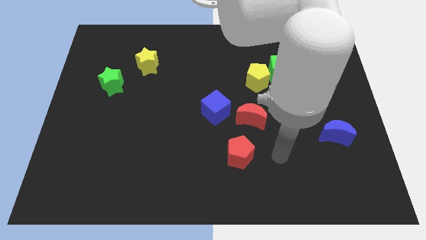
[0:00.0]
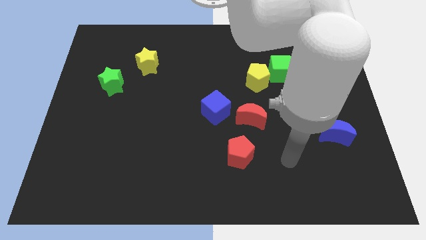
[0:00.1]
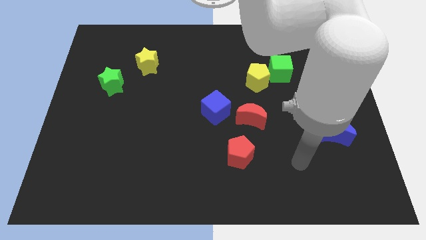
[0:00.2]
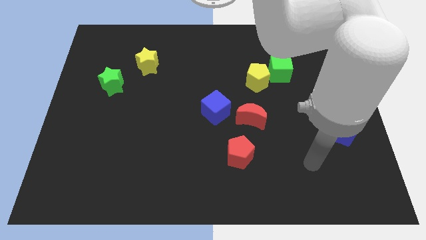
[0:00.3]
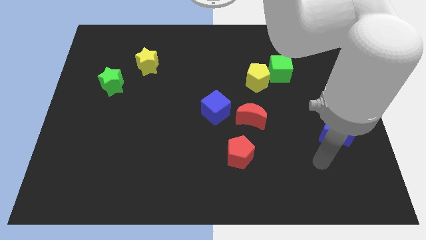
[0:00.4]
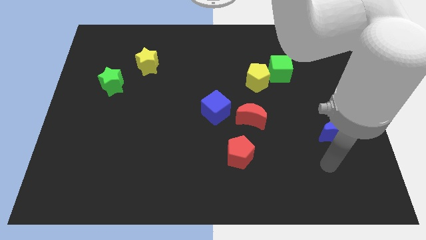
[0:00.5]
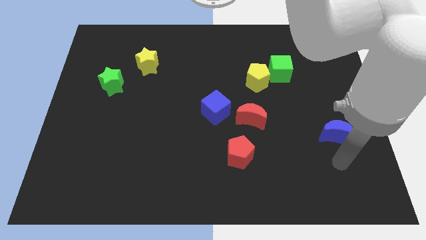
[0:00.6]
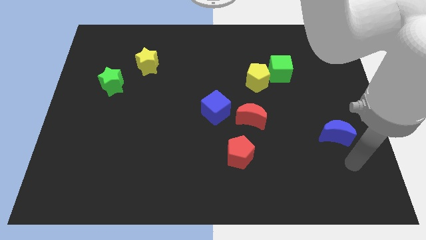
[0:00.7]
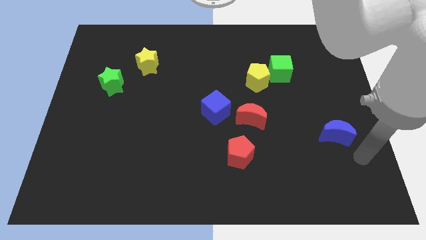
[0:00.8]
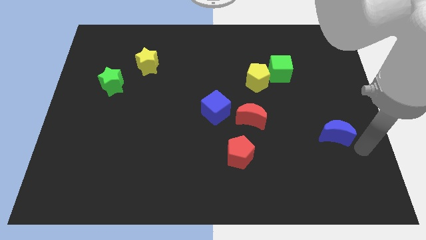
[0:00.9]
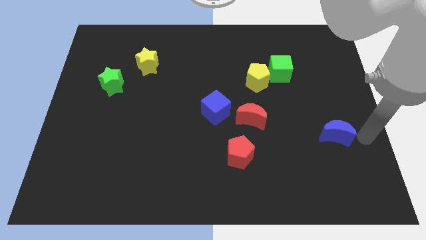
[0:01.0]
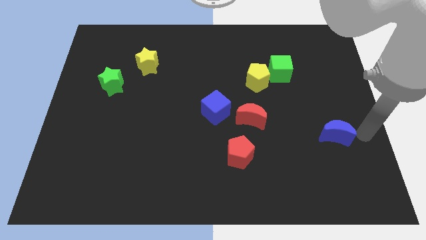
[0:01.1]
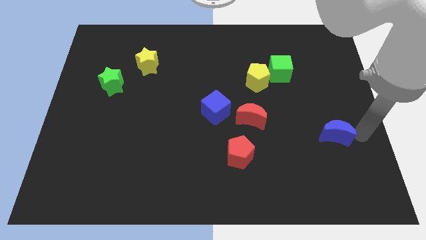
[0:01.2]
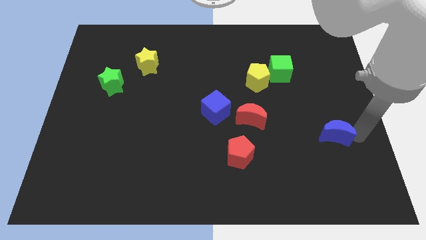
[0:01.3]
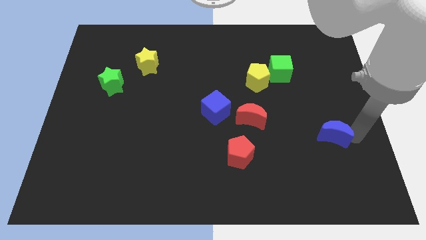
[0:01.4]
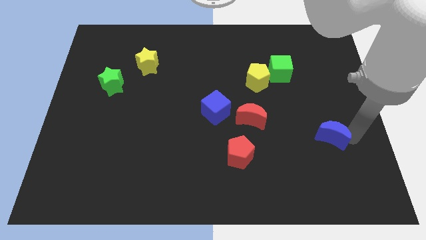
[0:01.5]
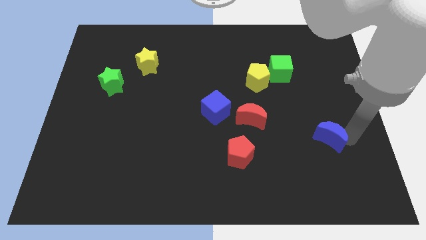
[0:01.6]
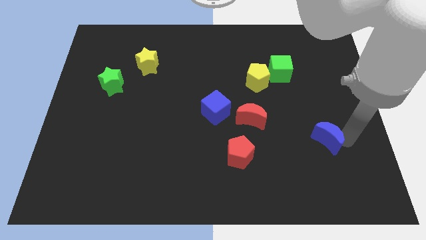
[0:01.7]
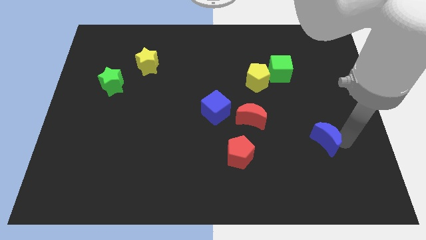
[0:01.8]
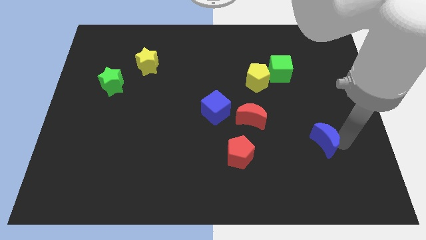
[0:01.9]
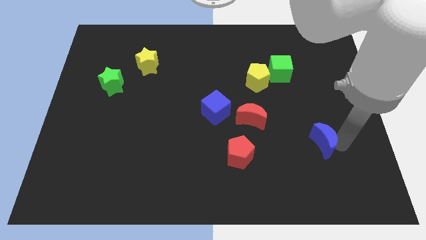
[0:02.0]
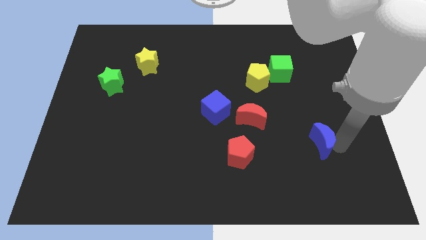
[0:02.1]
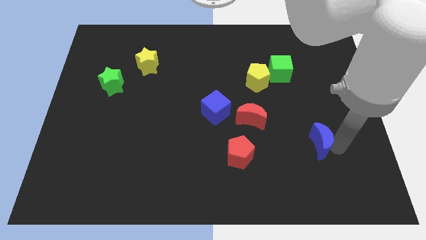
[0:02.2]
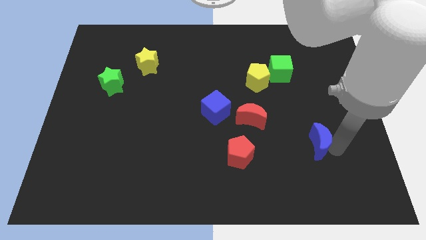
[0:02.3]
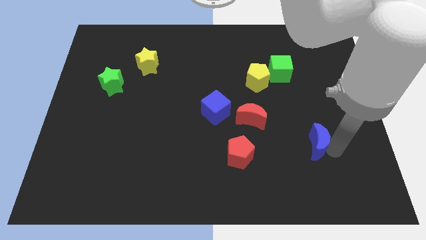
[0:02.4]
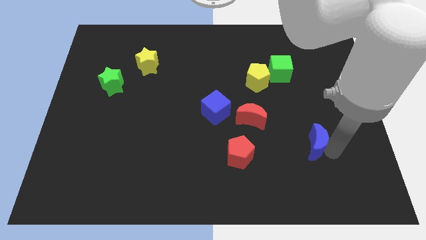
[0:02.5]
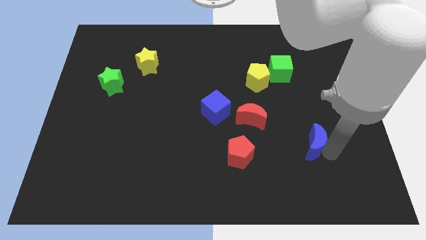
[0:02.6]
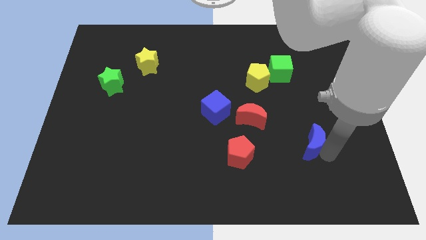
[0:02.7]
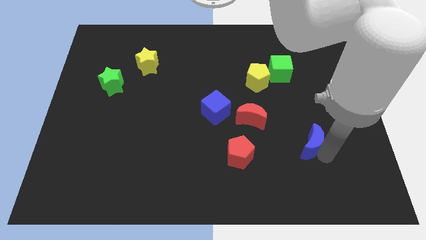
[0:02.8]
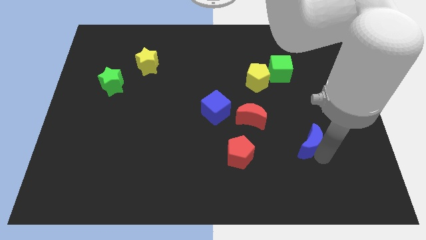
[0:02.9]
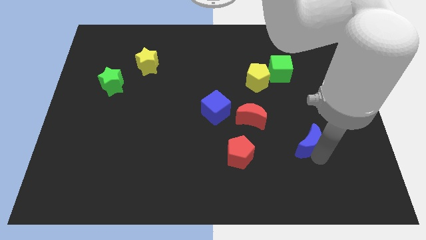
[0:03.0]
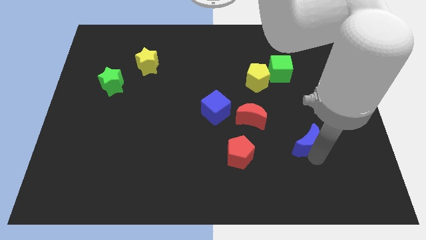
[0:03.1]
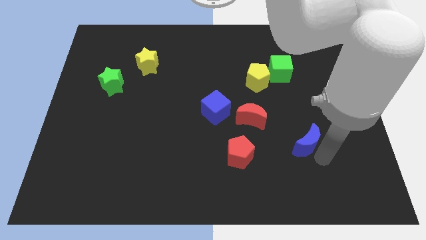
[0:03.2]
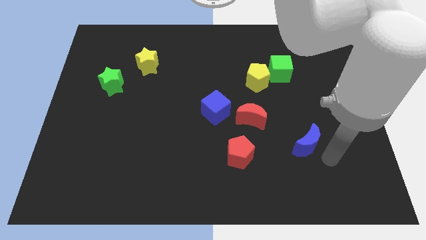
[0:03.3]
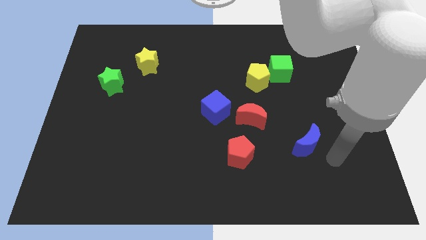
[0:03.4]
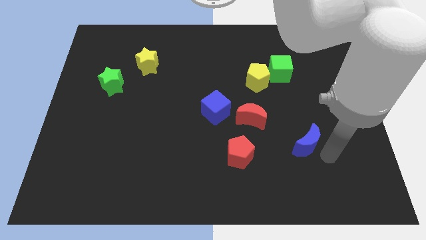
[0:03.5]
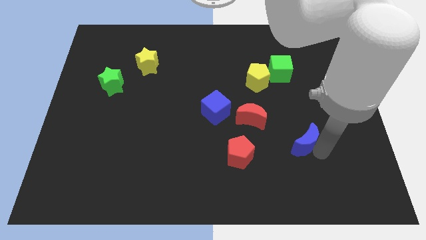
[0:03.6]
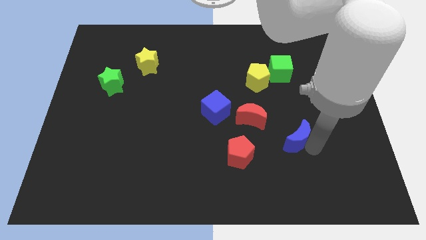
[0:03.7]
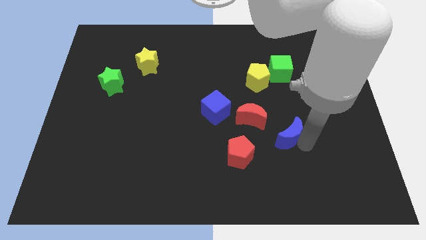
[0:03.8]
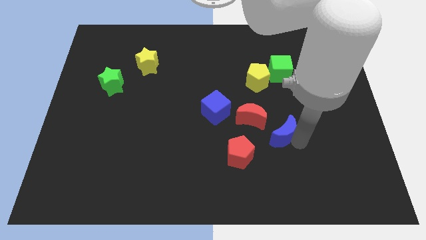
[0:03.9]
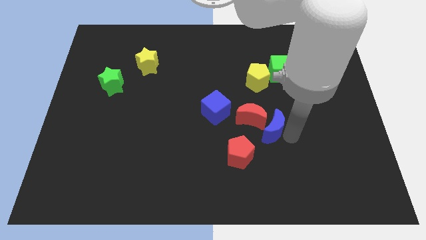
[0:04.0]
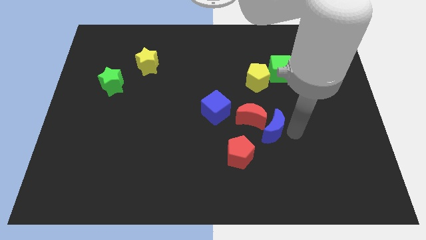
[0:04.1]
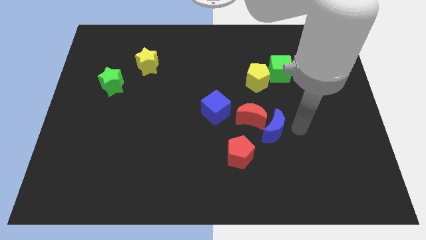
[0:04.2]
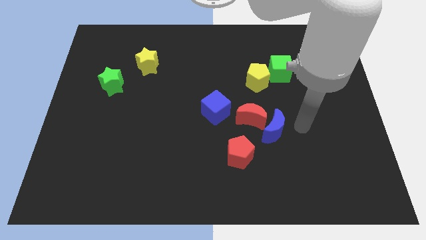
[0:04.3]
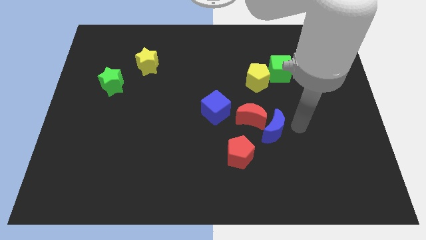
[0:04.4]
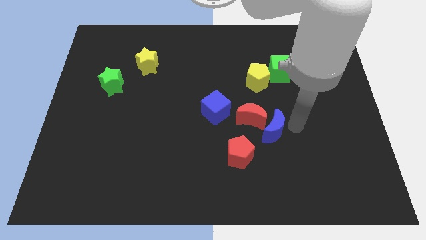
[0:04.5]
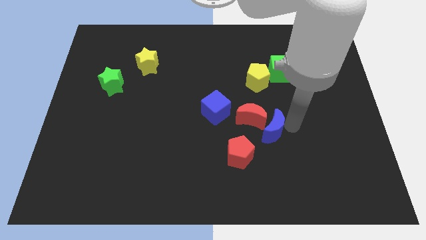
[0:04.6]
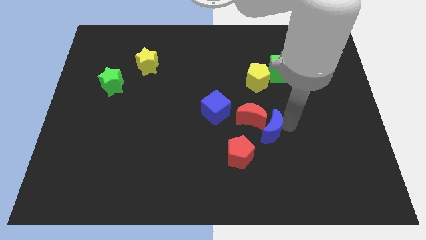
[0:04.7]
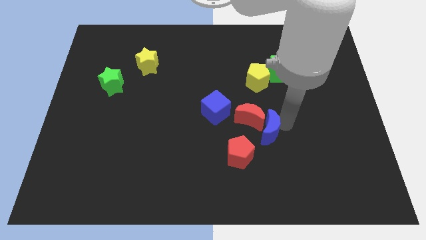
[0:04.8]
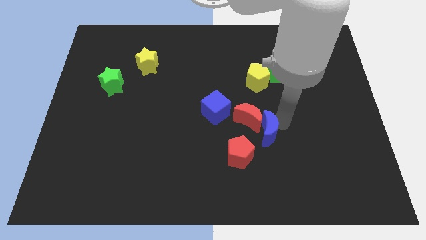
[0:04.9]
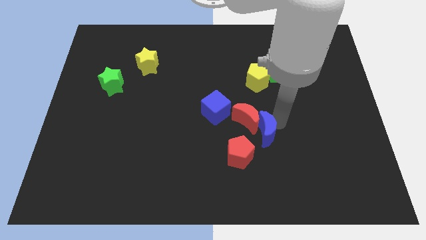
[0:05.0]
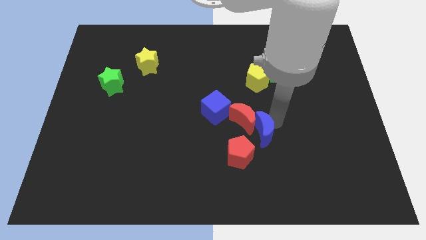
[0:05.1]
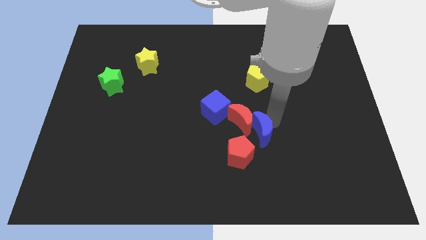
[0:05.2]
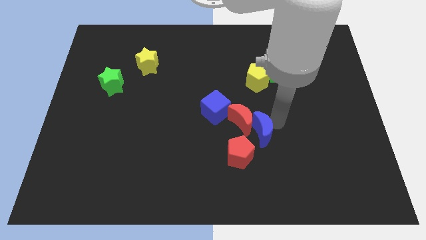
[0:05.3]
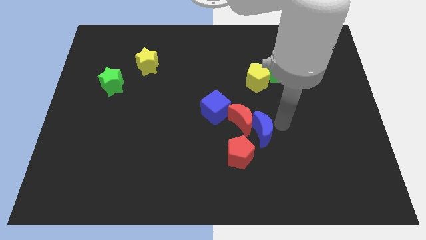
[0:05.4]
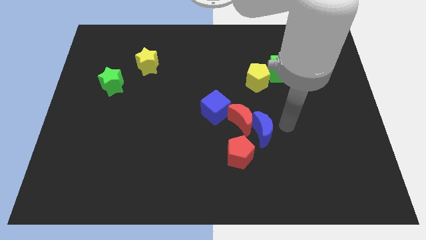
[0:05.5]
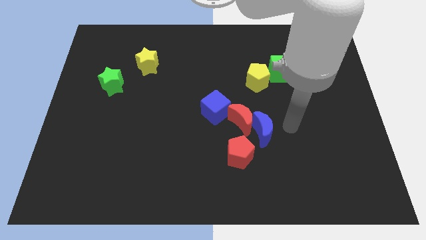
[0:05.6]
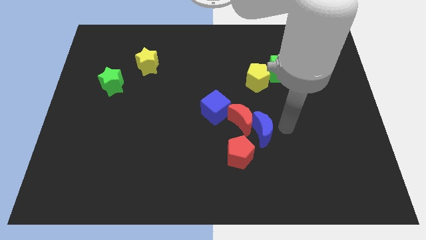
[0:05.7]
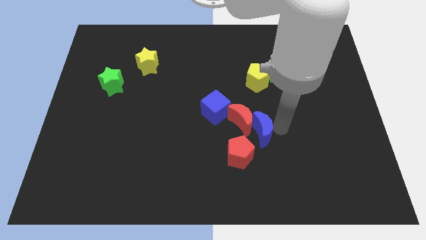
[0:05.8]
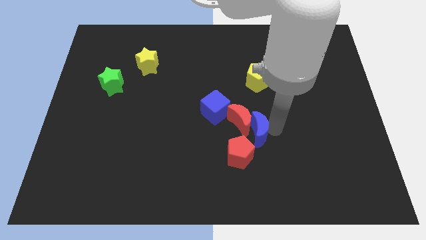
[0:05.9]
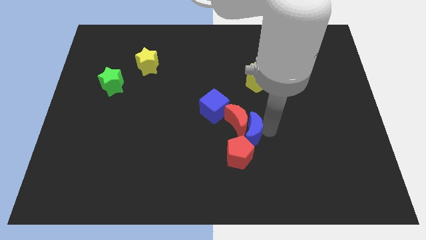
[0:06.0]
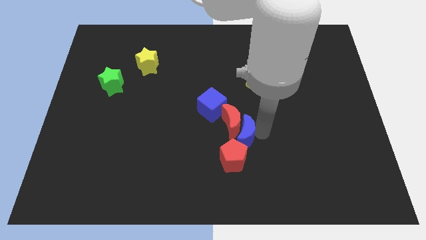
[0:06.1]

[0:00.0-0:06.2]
push the blue moon left

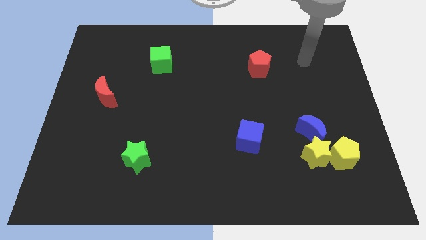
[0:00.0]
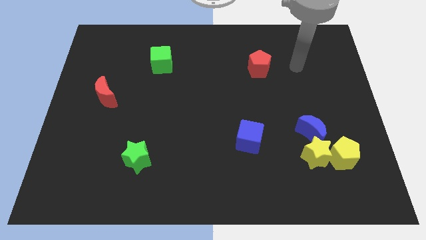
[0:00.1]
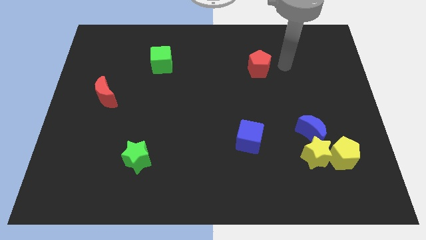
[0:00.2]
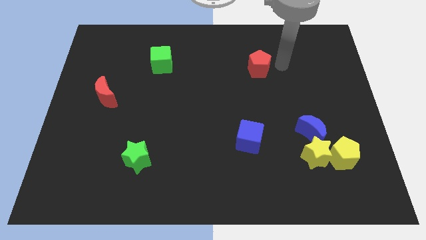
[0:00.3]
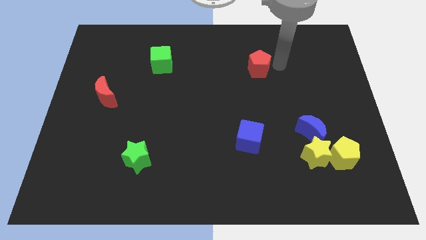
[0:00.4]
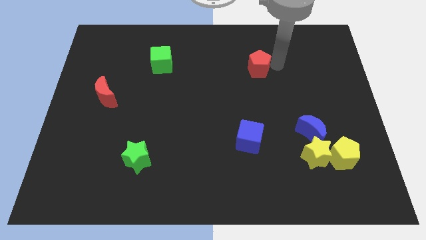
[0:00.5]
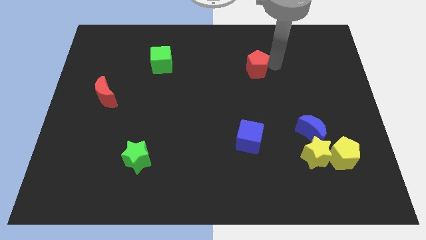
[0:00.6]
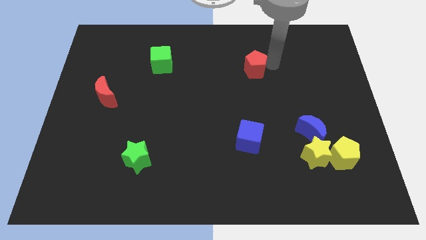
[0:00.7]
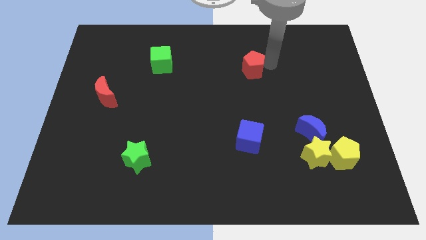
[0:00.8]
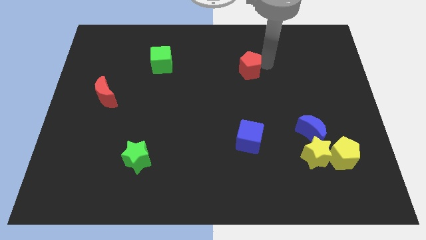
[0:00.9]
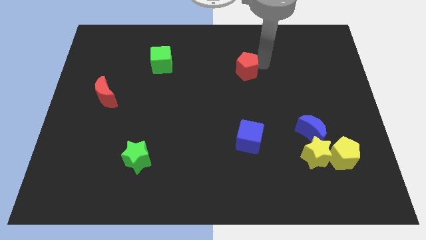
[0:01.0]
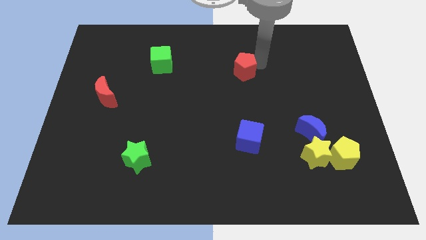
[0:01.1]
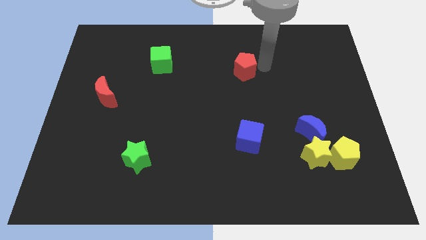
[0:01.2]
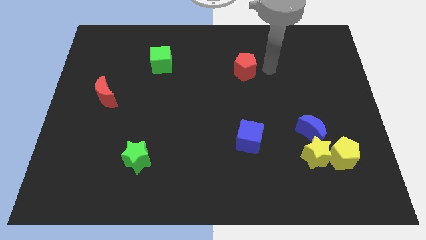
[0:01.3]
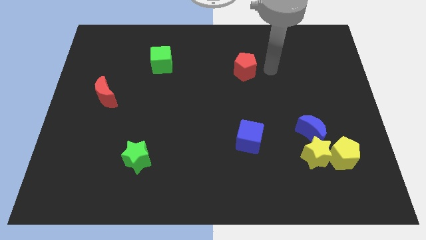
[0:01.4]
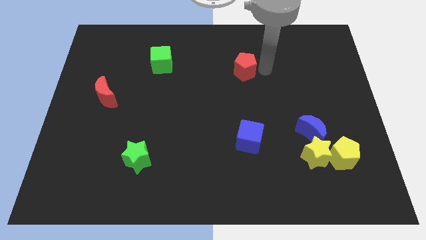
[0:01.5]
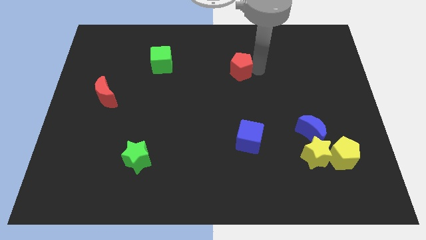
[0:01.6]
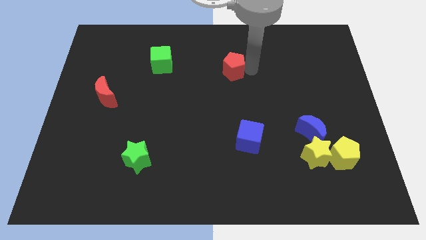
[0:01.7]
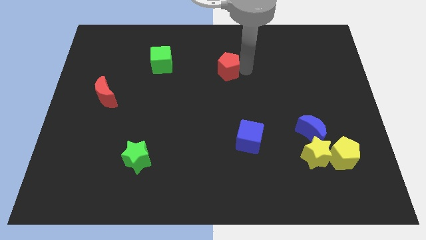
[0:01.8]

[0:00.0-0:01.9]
push the red pentagon left slightly
